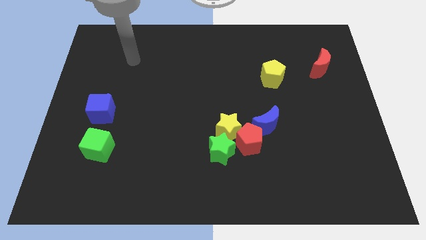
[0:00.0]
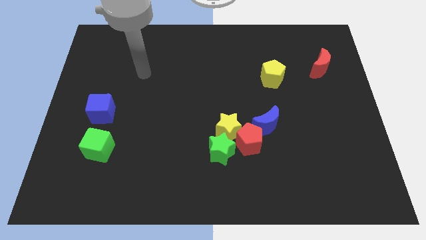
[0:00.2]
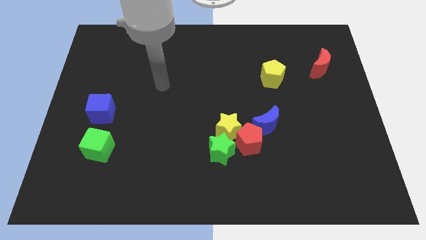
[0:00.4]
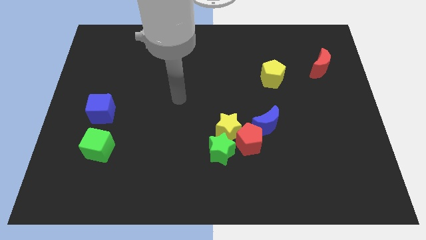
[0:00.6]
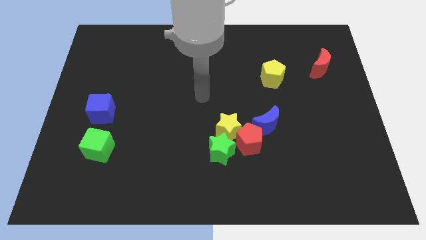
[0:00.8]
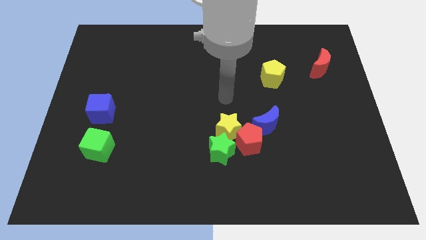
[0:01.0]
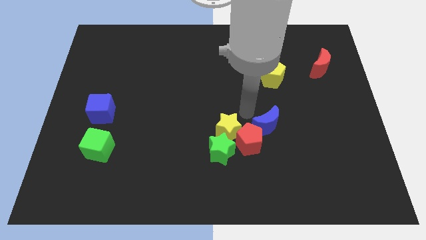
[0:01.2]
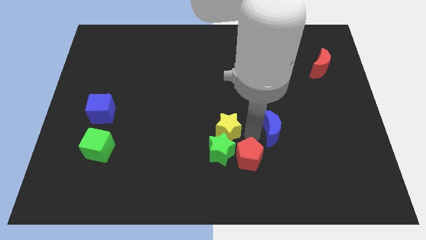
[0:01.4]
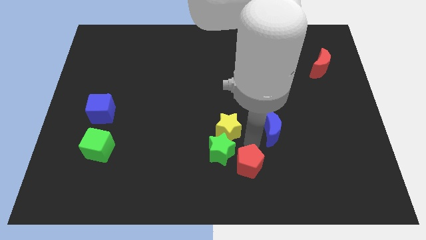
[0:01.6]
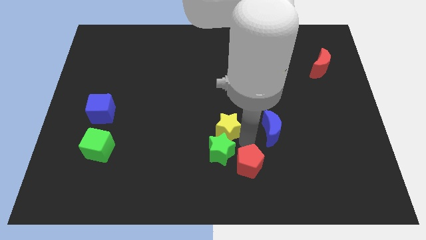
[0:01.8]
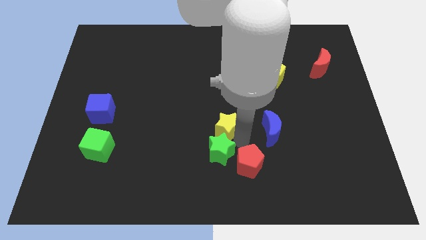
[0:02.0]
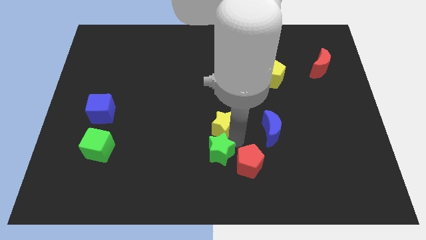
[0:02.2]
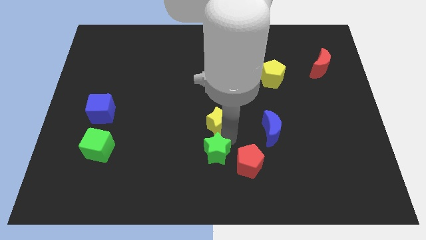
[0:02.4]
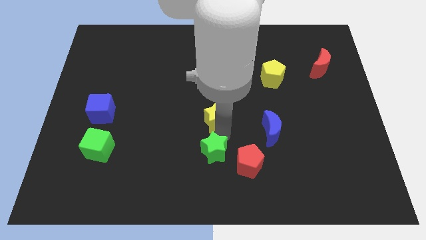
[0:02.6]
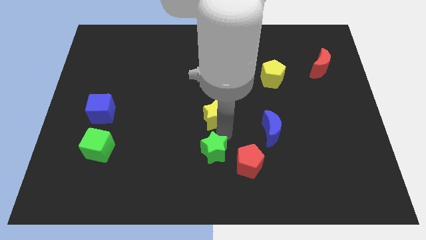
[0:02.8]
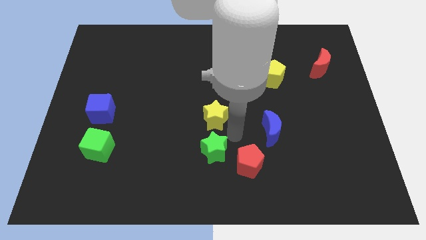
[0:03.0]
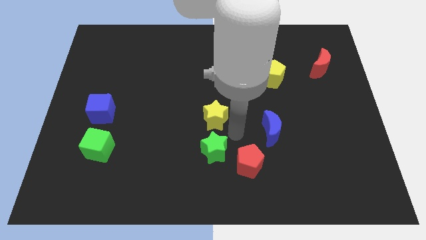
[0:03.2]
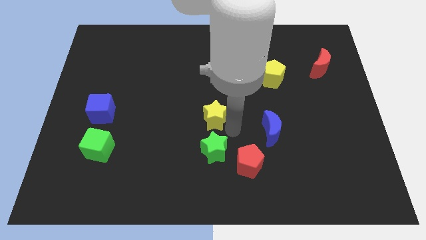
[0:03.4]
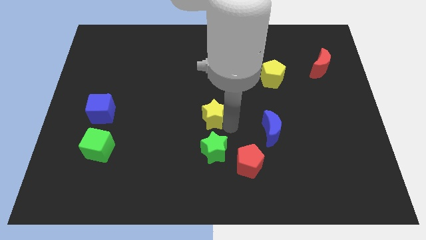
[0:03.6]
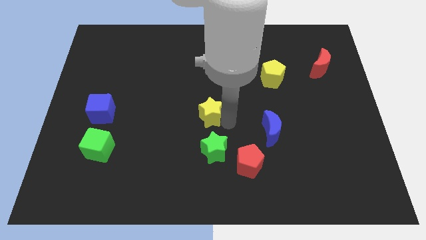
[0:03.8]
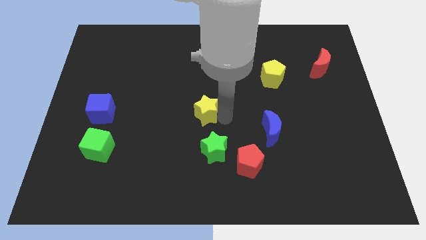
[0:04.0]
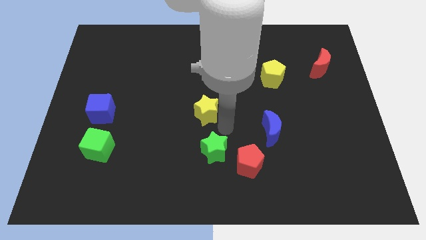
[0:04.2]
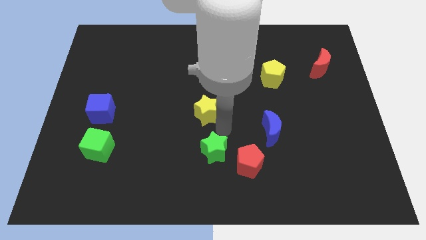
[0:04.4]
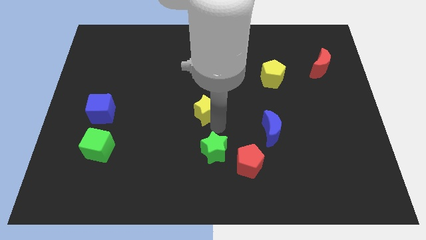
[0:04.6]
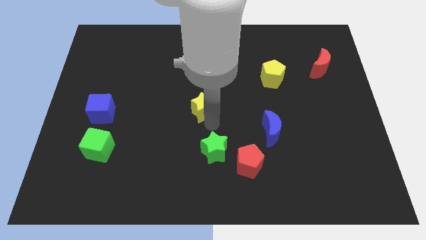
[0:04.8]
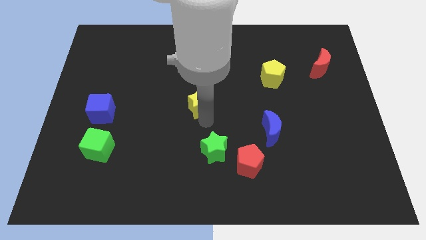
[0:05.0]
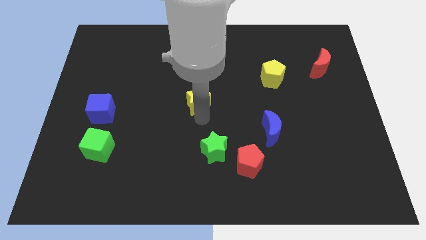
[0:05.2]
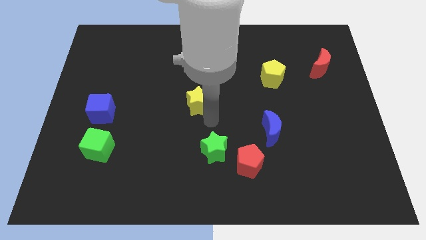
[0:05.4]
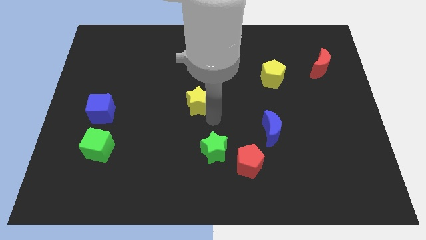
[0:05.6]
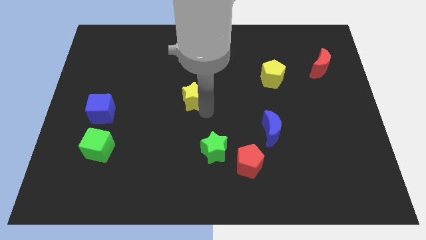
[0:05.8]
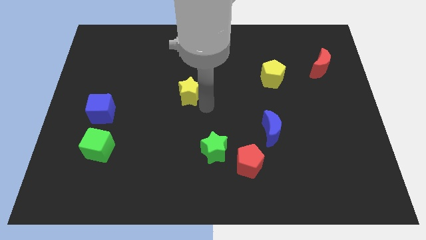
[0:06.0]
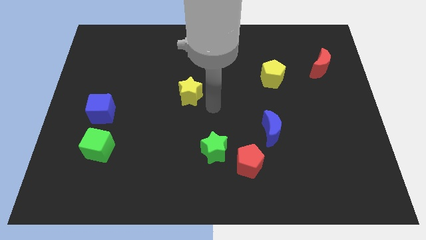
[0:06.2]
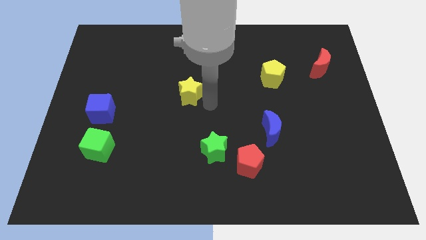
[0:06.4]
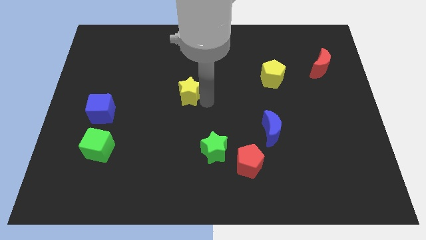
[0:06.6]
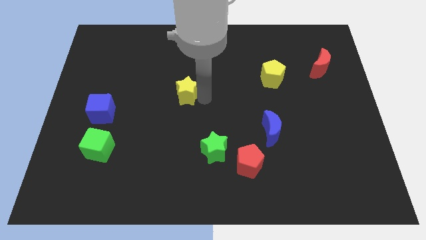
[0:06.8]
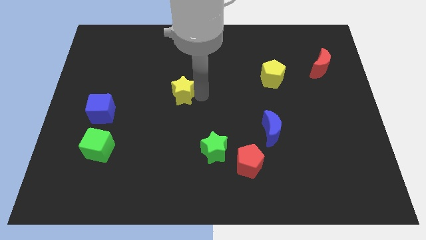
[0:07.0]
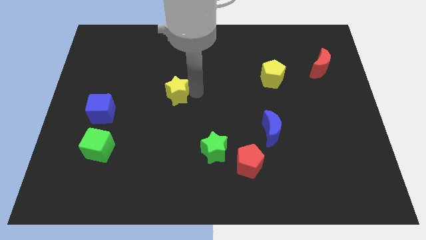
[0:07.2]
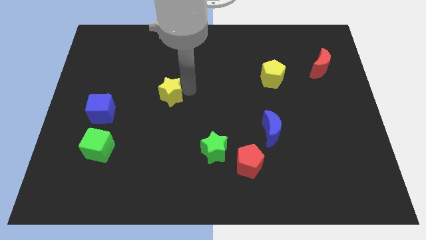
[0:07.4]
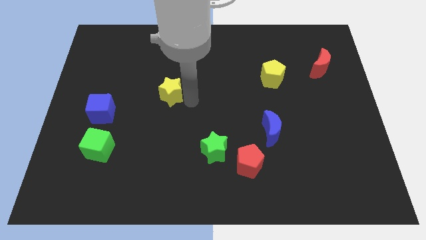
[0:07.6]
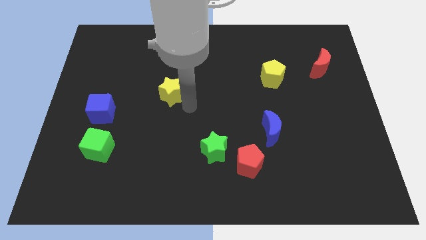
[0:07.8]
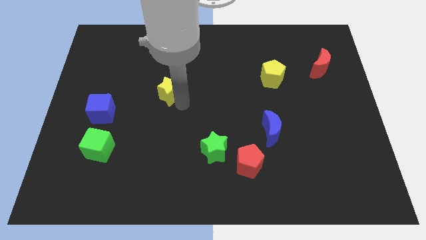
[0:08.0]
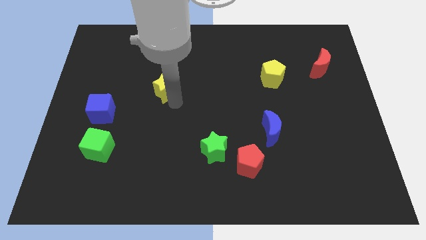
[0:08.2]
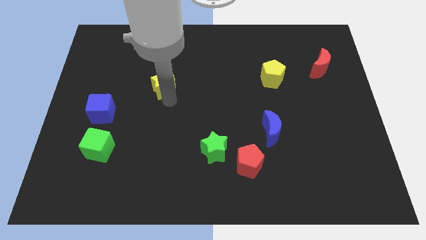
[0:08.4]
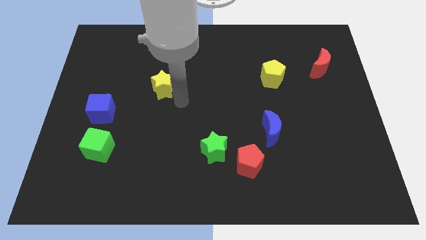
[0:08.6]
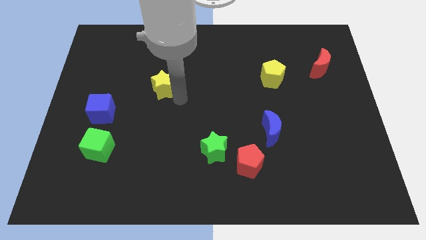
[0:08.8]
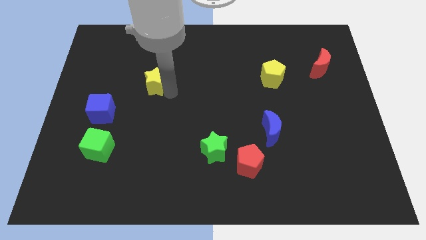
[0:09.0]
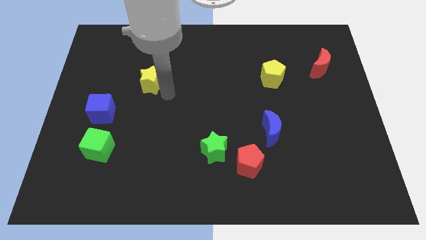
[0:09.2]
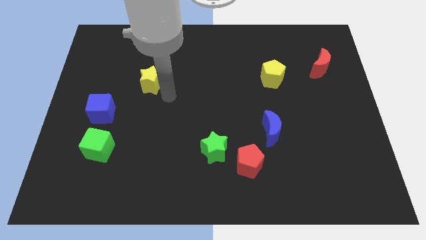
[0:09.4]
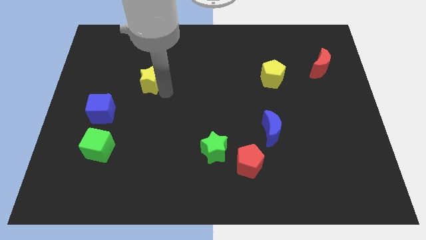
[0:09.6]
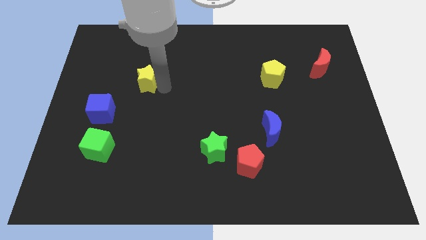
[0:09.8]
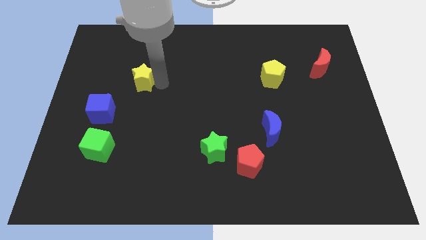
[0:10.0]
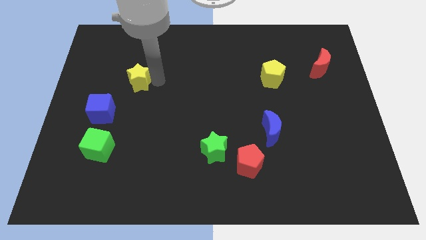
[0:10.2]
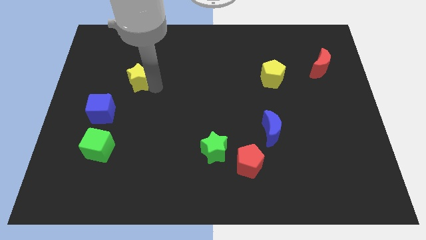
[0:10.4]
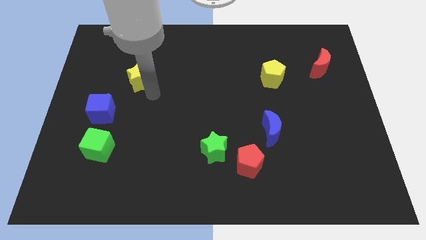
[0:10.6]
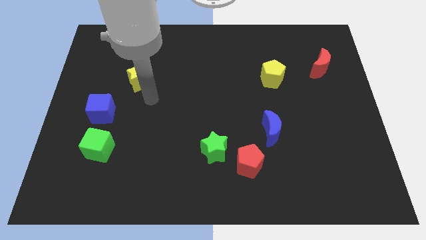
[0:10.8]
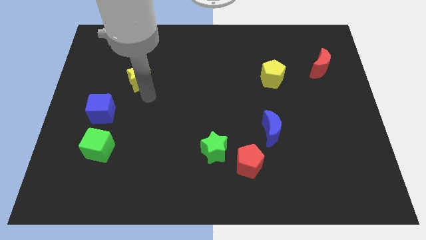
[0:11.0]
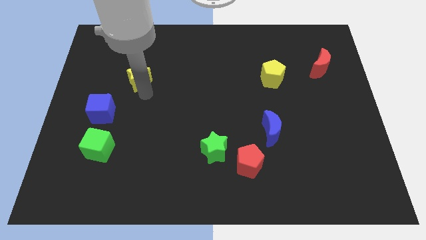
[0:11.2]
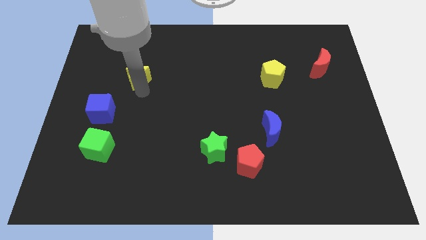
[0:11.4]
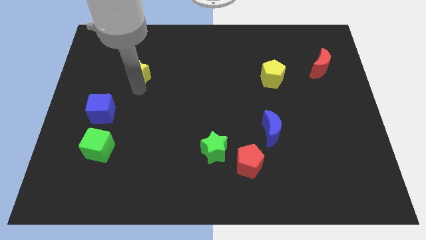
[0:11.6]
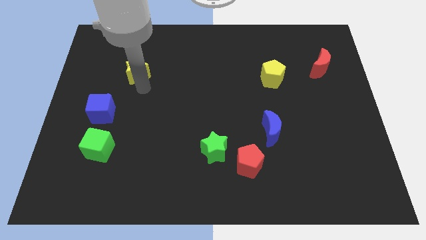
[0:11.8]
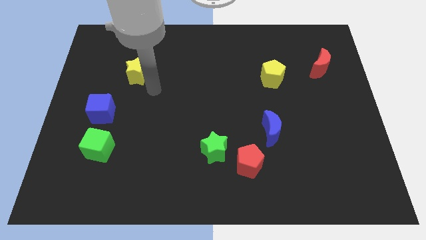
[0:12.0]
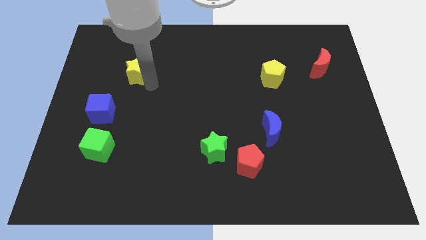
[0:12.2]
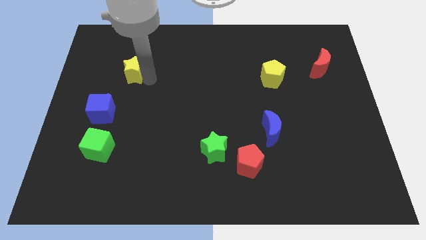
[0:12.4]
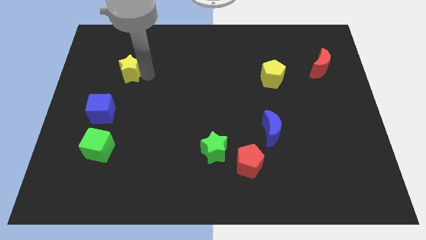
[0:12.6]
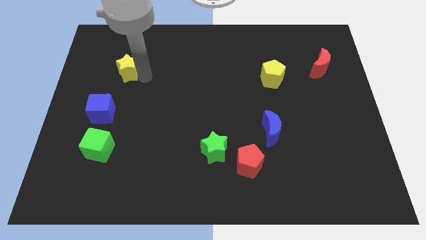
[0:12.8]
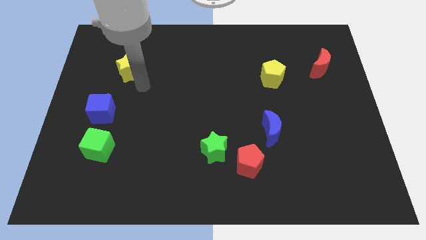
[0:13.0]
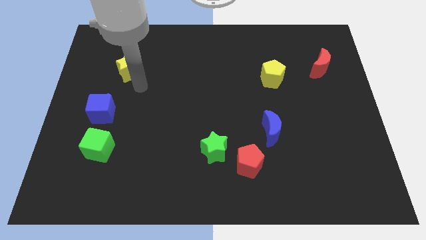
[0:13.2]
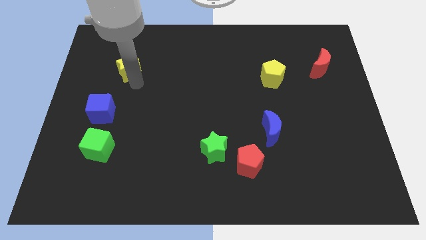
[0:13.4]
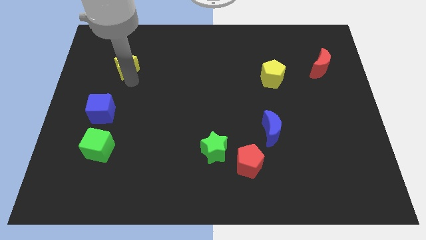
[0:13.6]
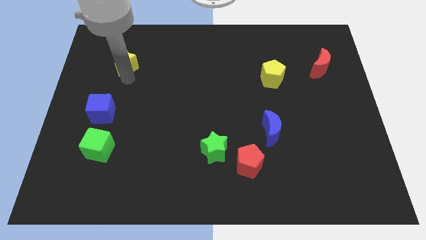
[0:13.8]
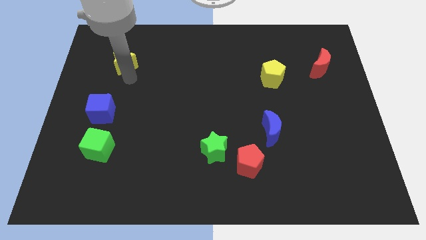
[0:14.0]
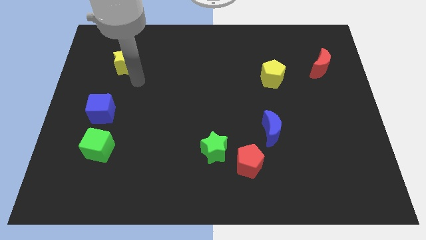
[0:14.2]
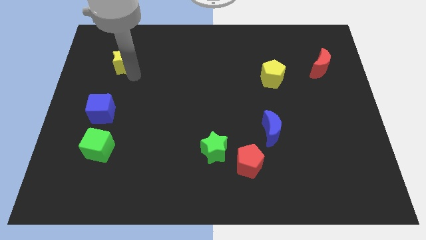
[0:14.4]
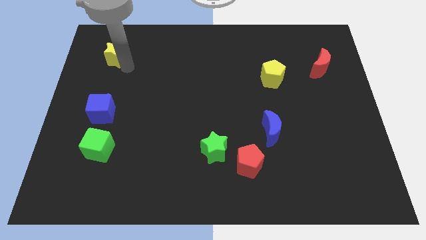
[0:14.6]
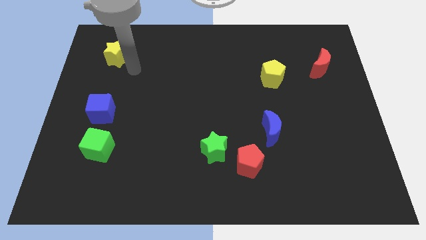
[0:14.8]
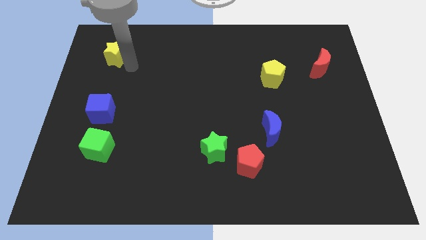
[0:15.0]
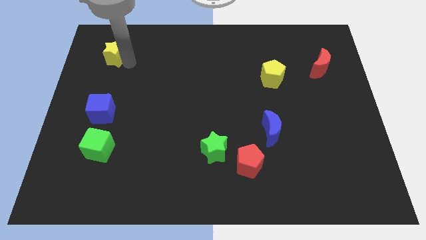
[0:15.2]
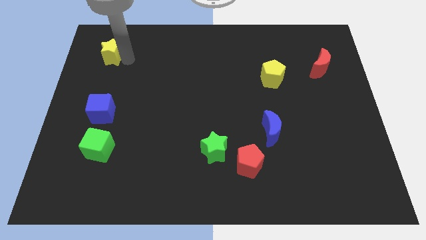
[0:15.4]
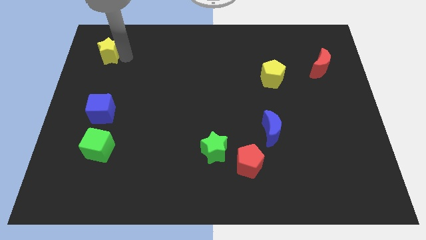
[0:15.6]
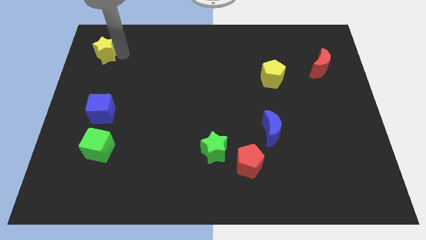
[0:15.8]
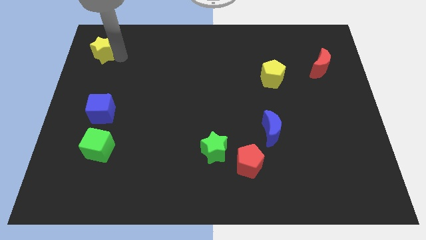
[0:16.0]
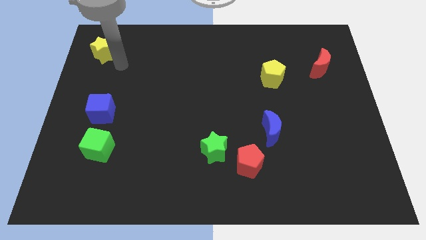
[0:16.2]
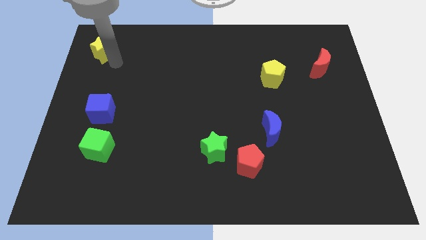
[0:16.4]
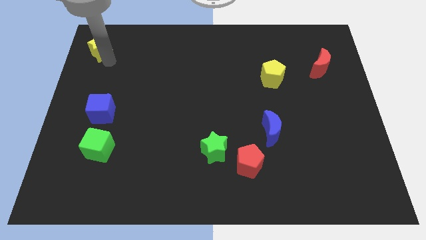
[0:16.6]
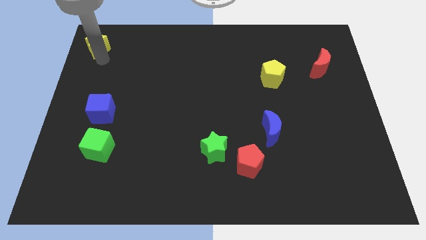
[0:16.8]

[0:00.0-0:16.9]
push the yellow star to the top left corner
